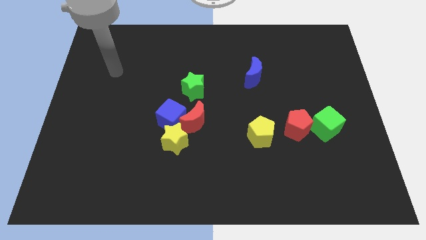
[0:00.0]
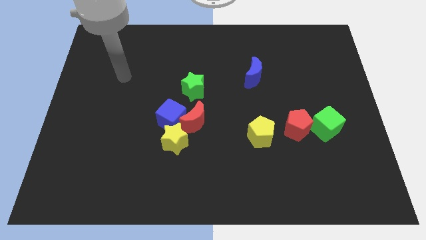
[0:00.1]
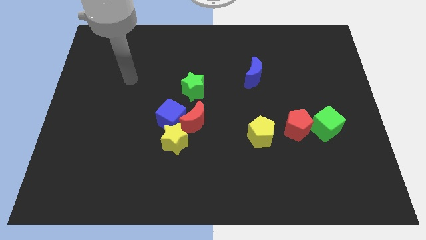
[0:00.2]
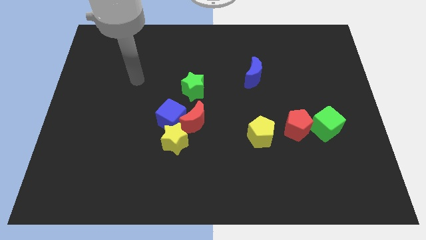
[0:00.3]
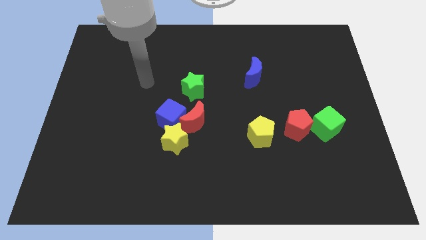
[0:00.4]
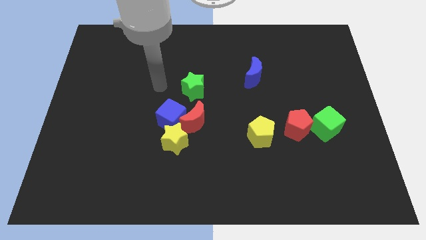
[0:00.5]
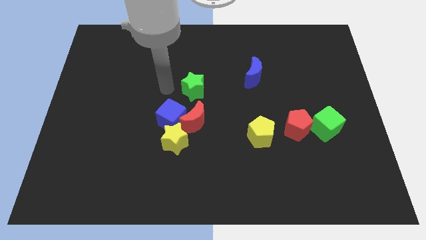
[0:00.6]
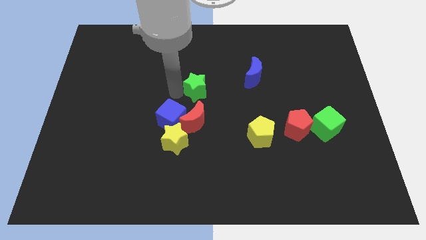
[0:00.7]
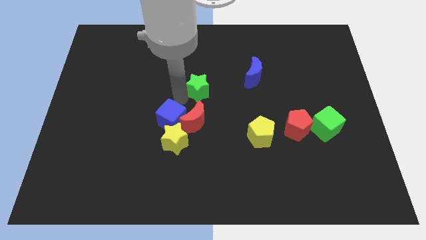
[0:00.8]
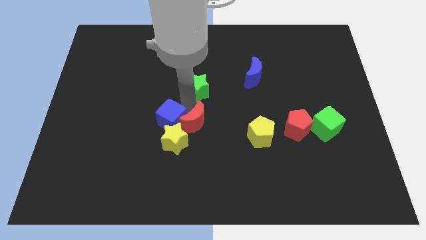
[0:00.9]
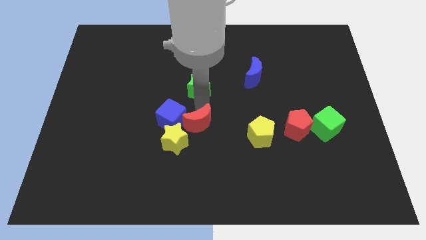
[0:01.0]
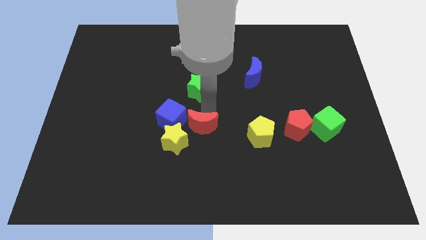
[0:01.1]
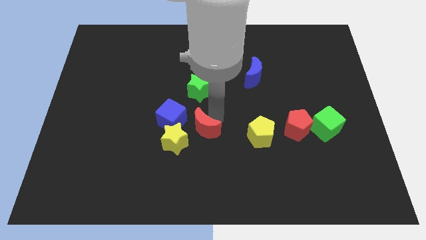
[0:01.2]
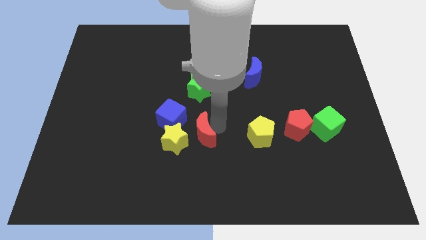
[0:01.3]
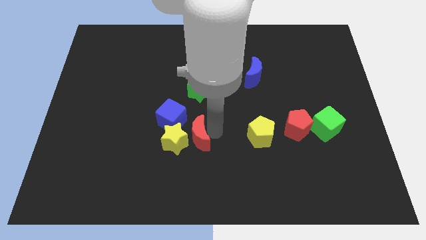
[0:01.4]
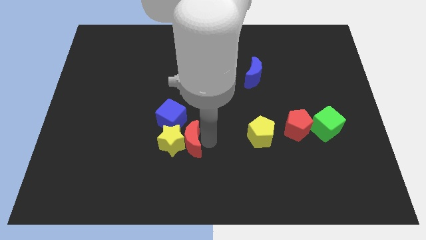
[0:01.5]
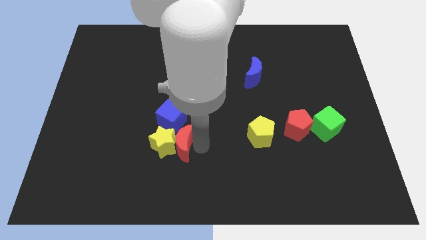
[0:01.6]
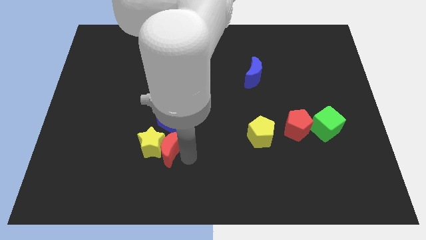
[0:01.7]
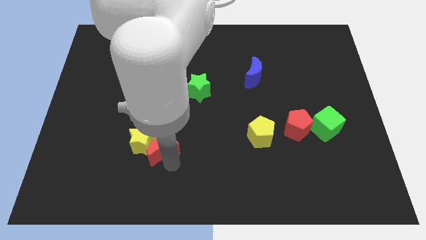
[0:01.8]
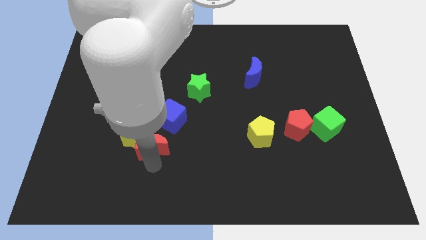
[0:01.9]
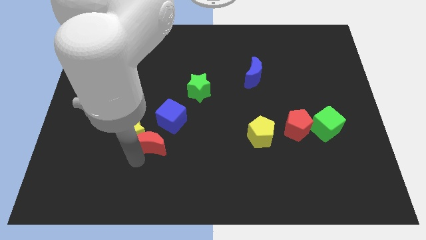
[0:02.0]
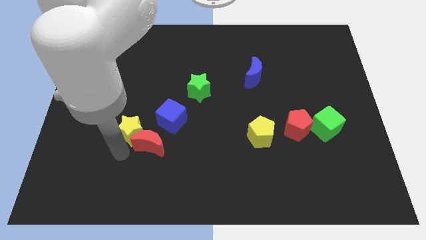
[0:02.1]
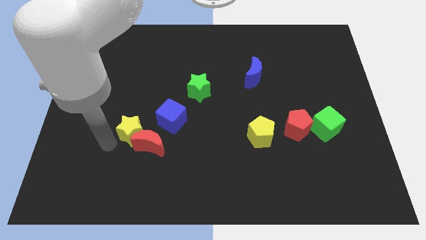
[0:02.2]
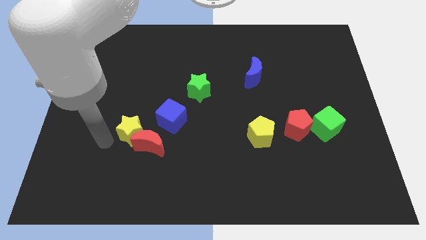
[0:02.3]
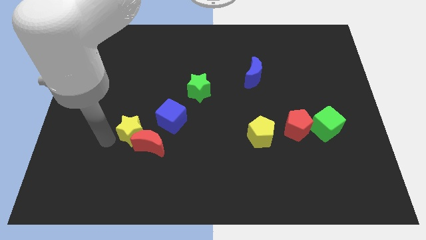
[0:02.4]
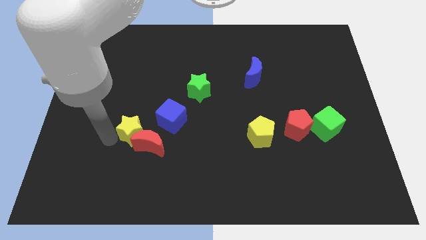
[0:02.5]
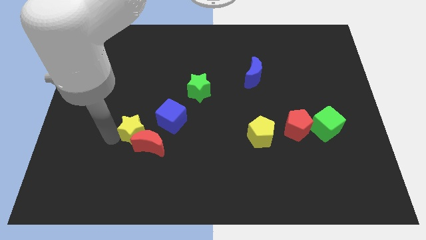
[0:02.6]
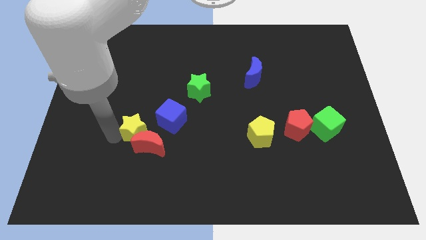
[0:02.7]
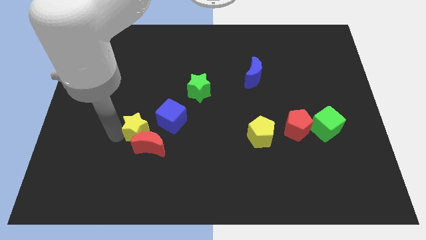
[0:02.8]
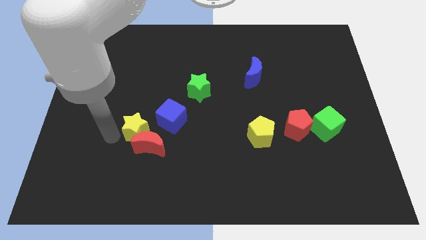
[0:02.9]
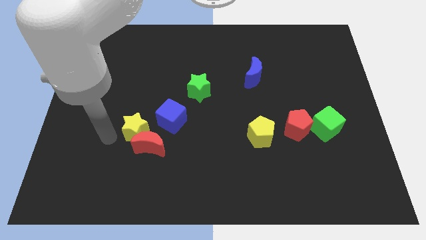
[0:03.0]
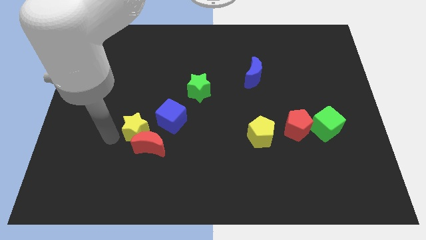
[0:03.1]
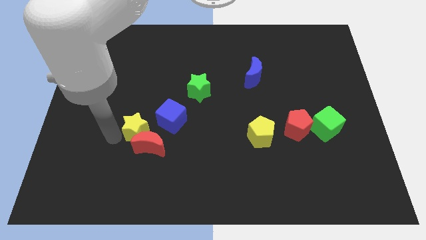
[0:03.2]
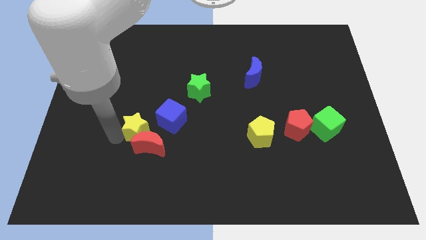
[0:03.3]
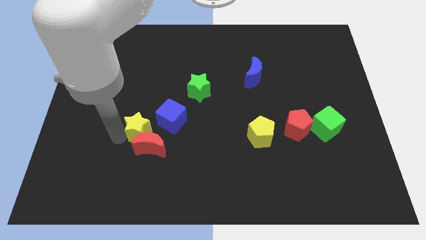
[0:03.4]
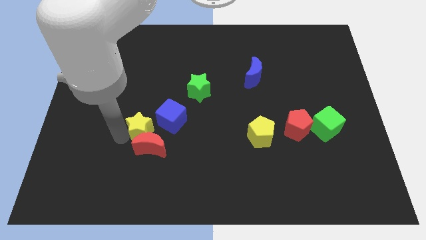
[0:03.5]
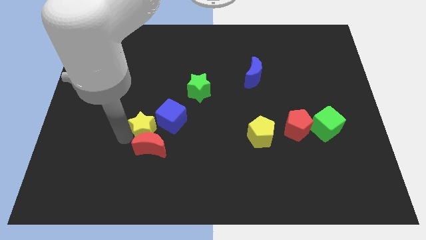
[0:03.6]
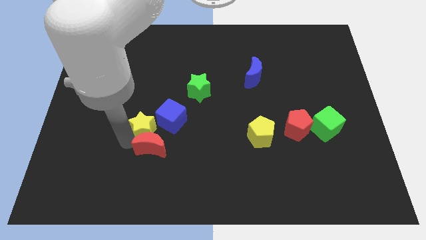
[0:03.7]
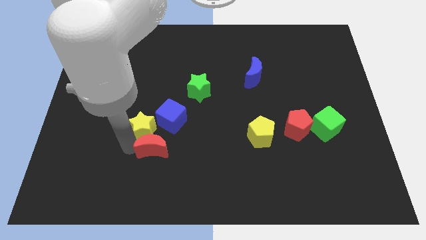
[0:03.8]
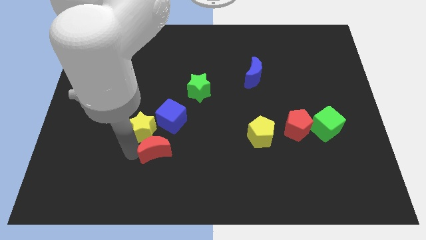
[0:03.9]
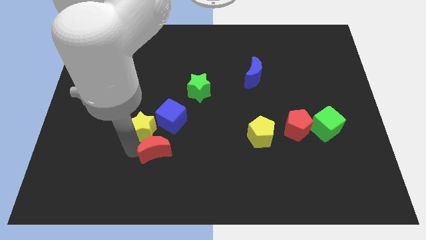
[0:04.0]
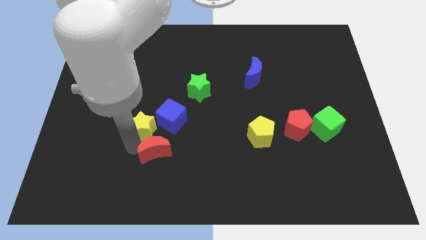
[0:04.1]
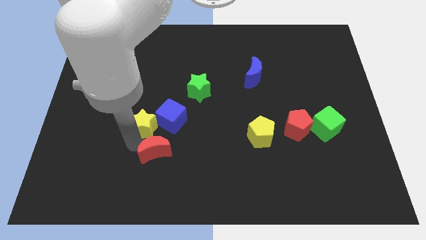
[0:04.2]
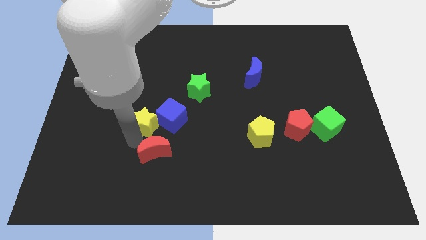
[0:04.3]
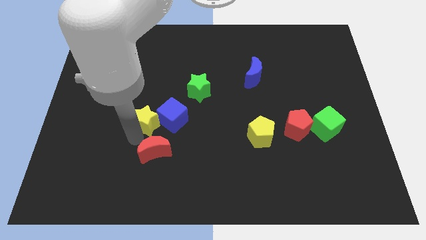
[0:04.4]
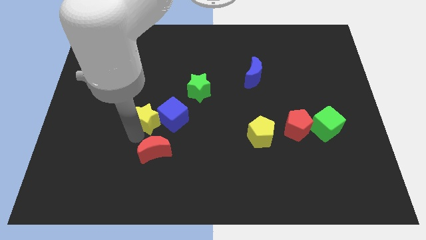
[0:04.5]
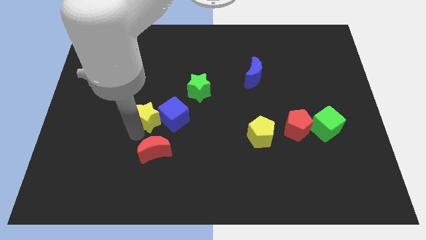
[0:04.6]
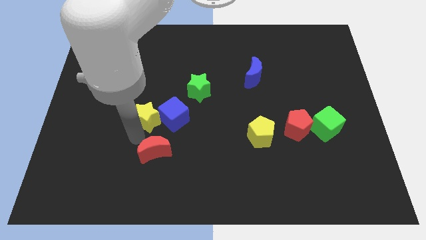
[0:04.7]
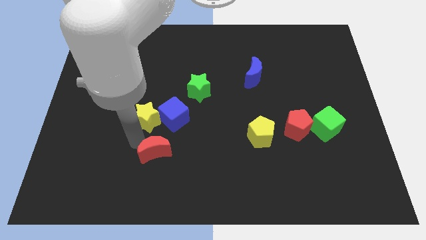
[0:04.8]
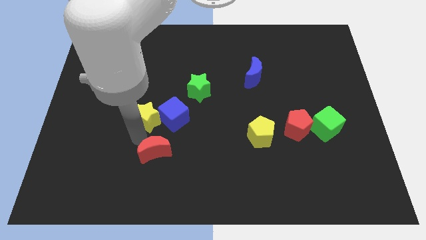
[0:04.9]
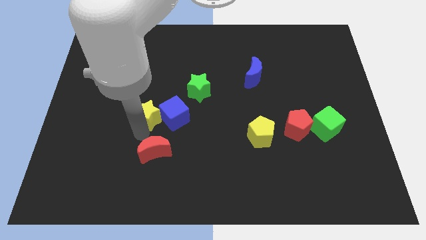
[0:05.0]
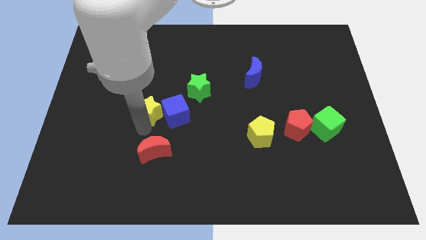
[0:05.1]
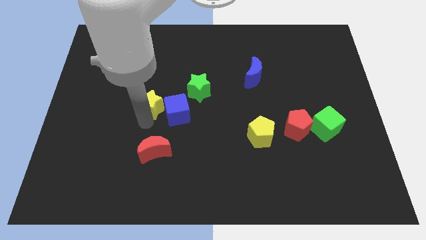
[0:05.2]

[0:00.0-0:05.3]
push the yellow star slightly upwards

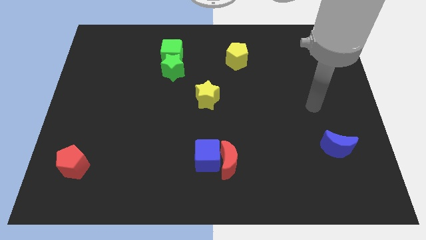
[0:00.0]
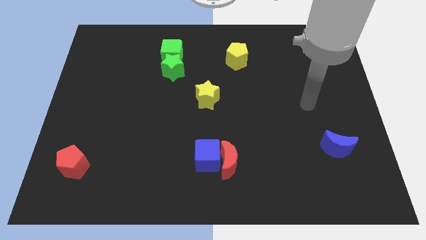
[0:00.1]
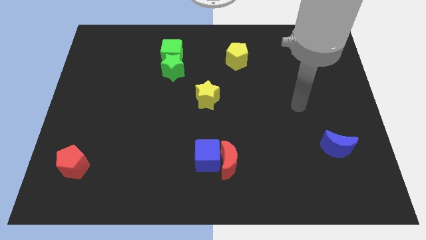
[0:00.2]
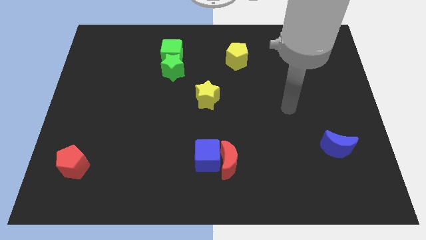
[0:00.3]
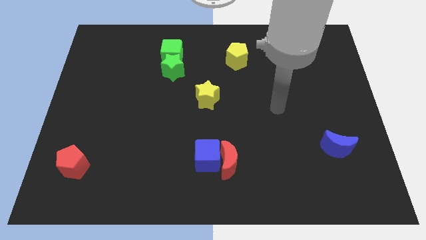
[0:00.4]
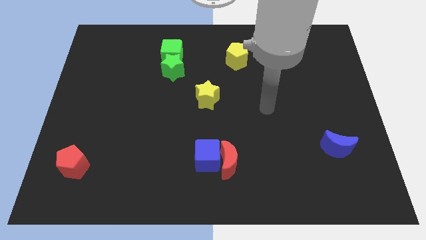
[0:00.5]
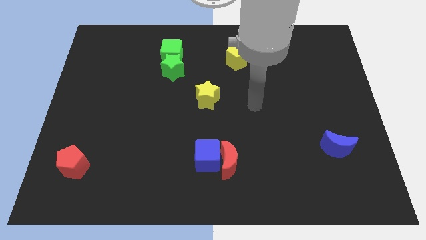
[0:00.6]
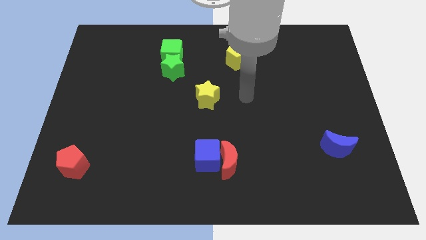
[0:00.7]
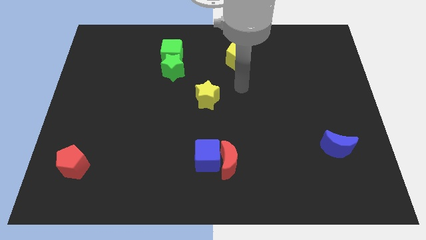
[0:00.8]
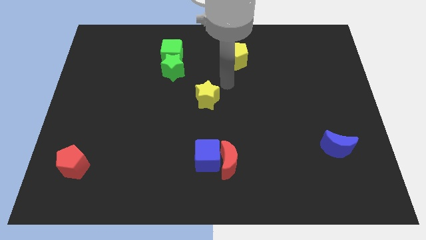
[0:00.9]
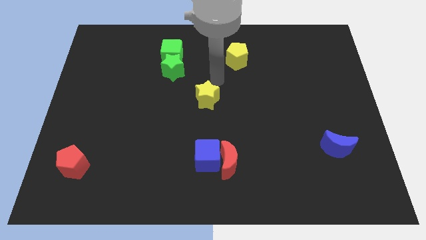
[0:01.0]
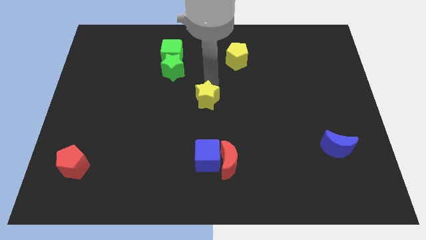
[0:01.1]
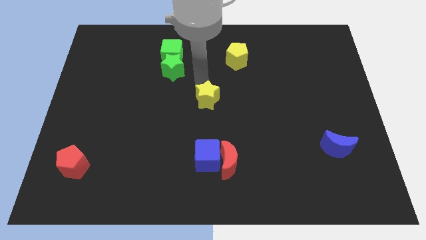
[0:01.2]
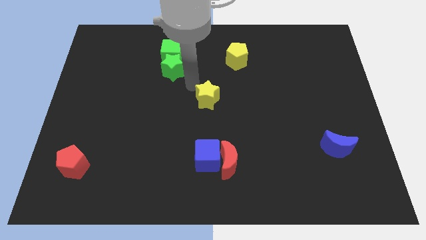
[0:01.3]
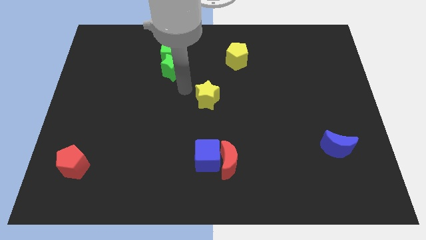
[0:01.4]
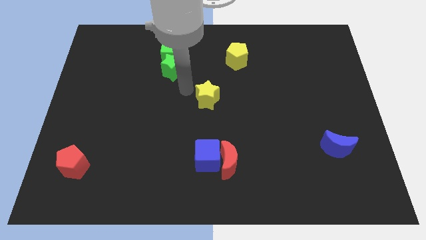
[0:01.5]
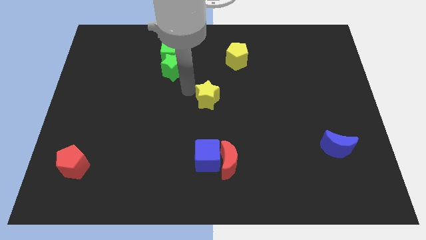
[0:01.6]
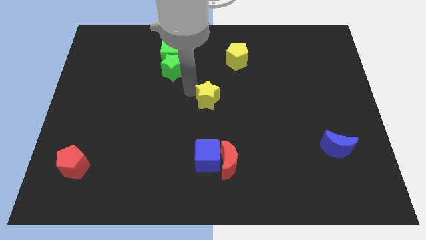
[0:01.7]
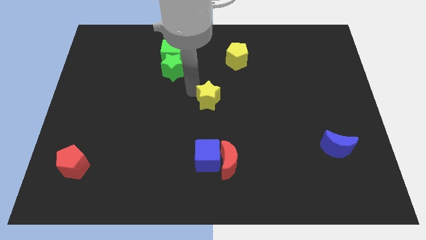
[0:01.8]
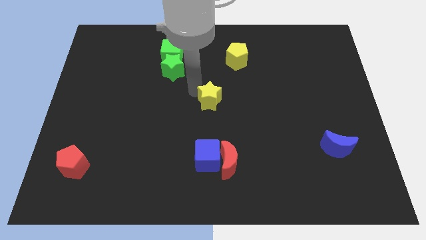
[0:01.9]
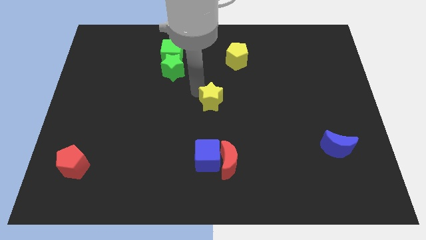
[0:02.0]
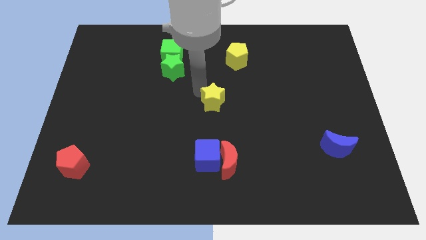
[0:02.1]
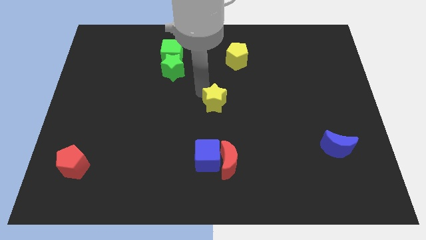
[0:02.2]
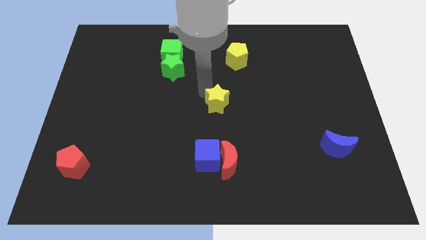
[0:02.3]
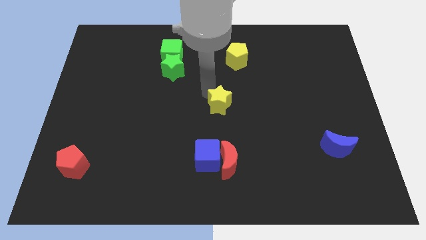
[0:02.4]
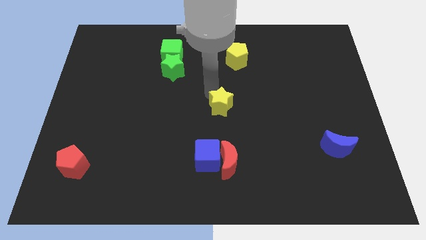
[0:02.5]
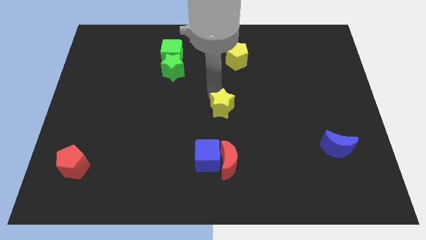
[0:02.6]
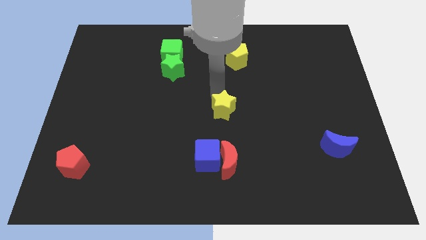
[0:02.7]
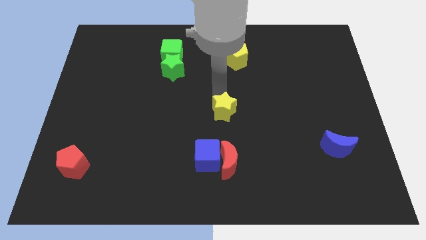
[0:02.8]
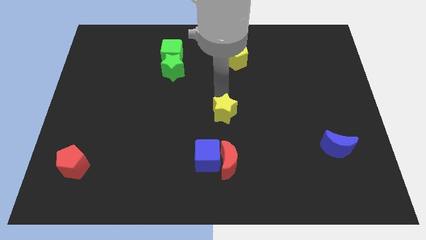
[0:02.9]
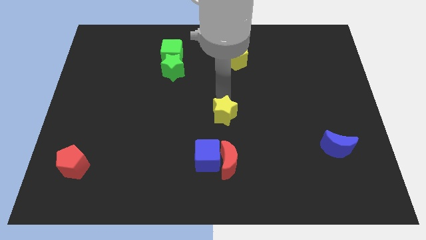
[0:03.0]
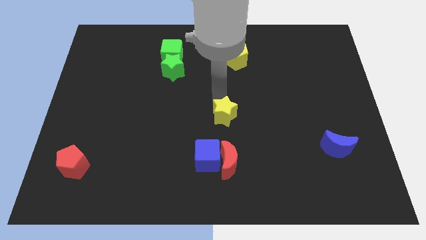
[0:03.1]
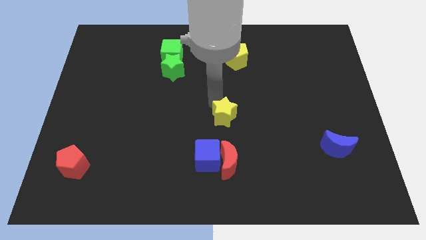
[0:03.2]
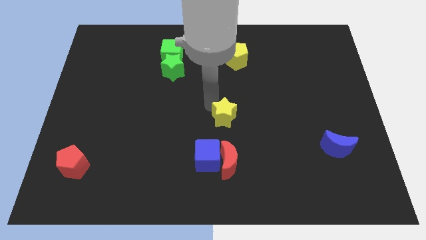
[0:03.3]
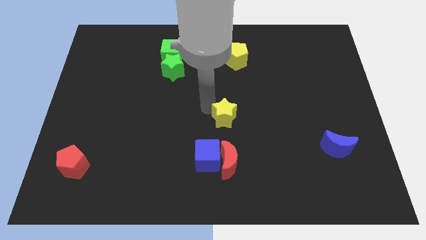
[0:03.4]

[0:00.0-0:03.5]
slide the yellow star a little downwards and right
